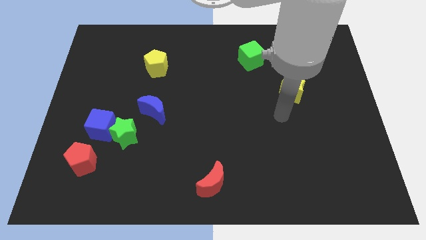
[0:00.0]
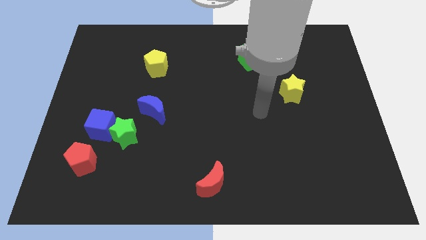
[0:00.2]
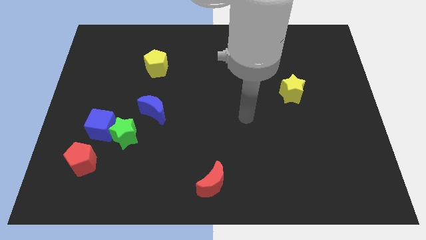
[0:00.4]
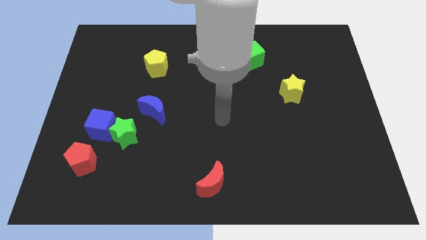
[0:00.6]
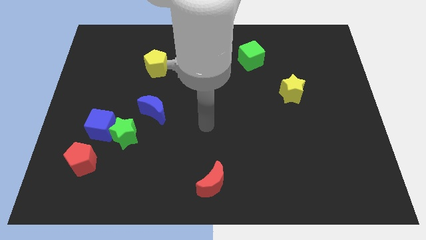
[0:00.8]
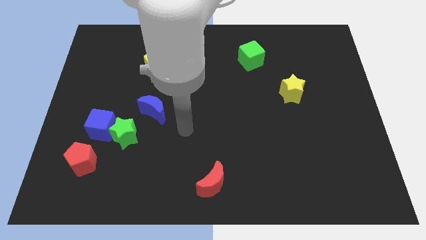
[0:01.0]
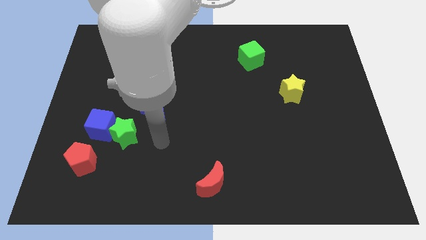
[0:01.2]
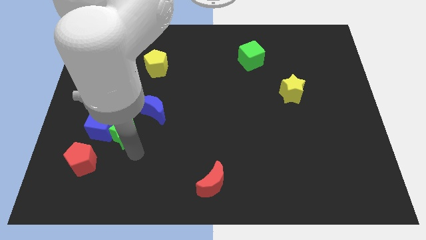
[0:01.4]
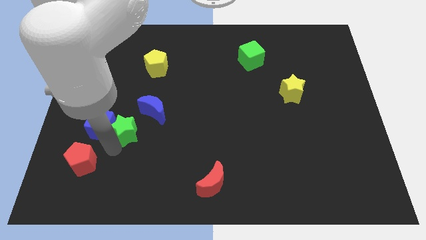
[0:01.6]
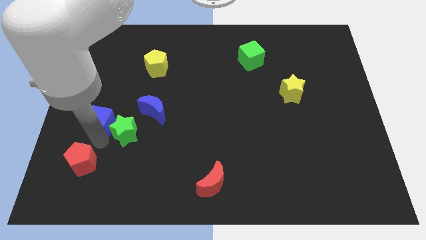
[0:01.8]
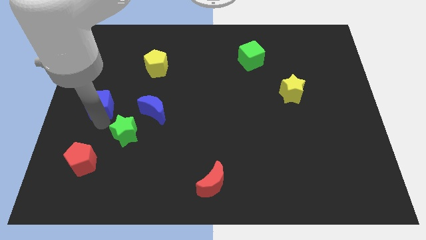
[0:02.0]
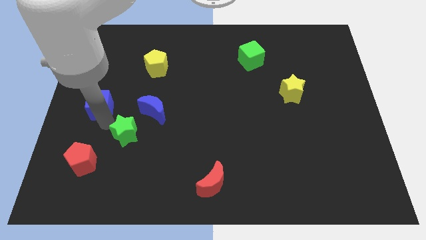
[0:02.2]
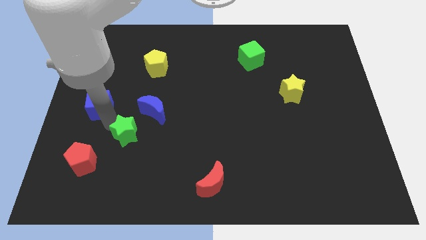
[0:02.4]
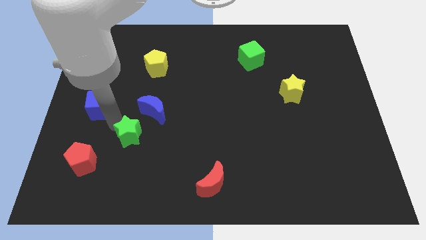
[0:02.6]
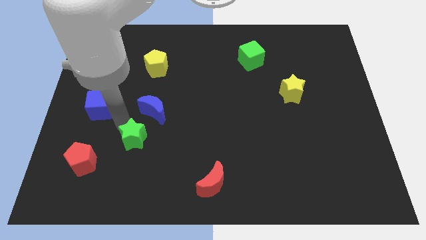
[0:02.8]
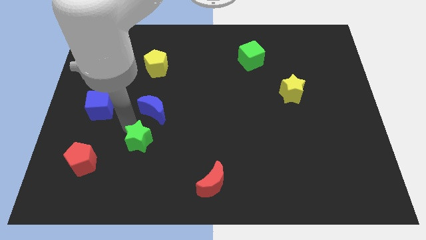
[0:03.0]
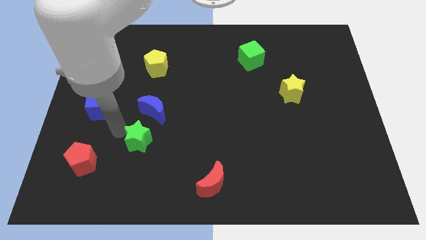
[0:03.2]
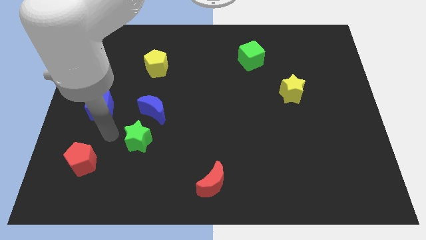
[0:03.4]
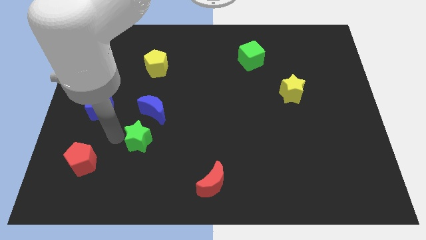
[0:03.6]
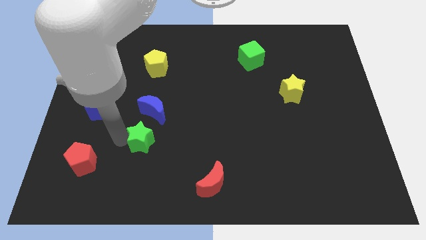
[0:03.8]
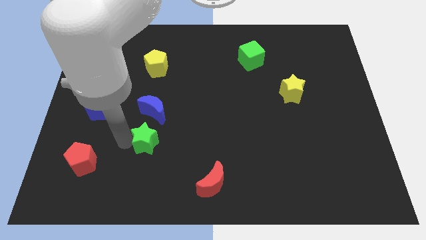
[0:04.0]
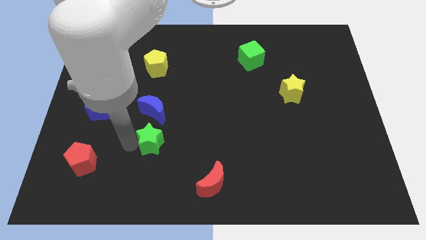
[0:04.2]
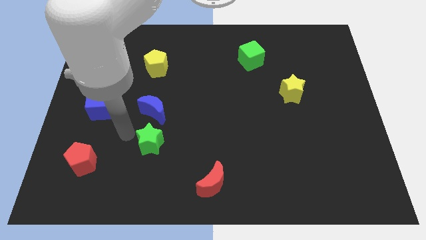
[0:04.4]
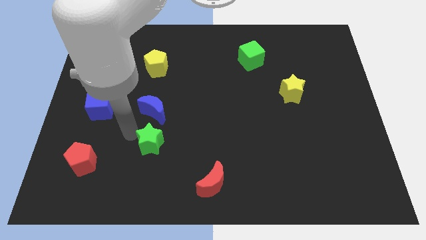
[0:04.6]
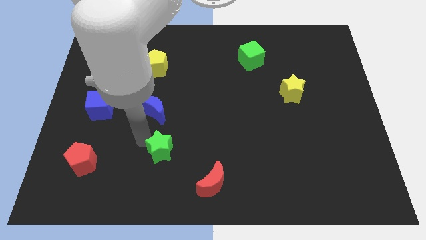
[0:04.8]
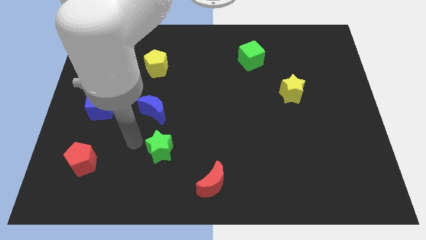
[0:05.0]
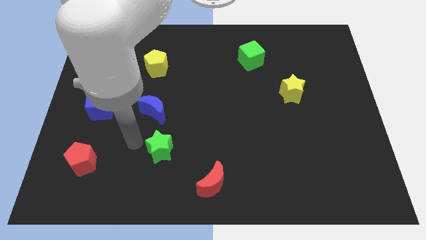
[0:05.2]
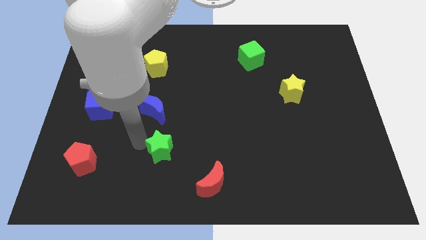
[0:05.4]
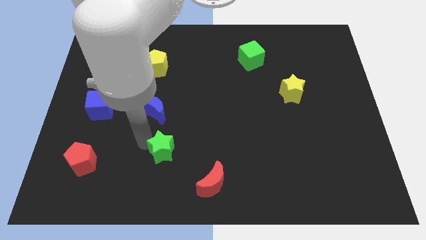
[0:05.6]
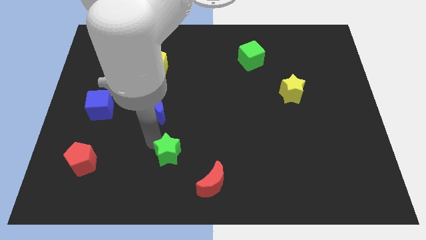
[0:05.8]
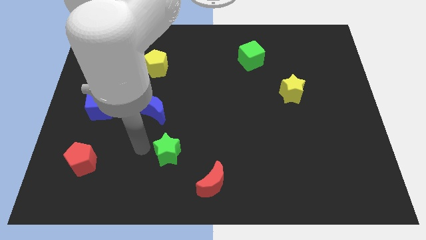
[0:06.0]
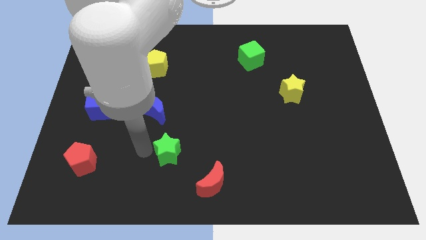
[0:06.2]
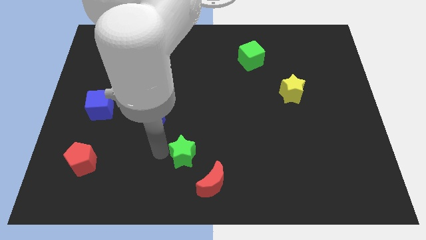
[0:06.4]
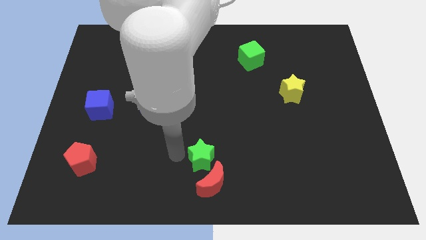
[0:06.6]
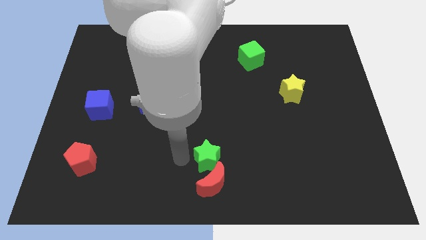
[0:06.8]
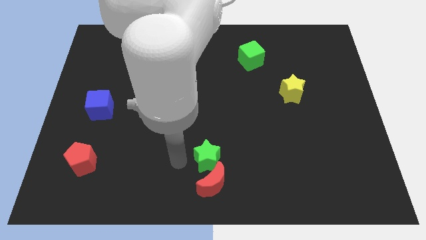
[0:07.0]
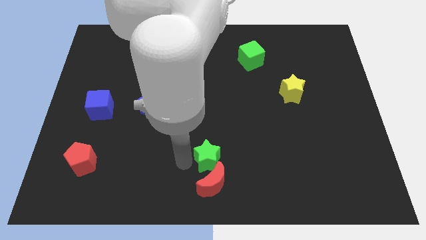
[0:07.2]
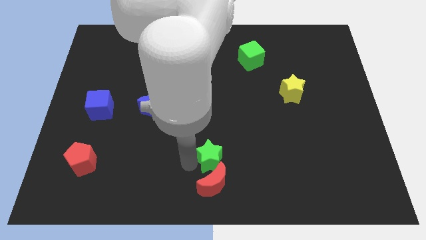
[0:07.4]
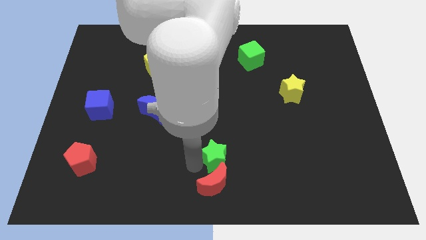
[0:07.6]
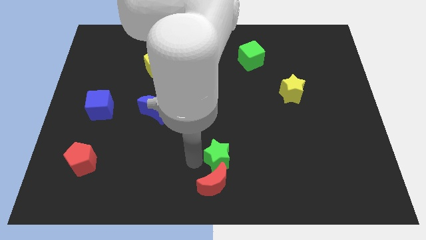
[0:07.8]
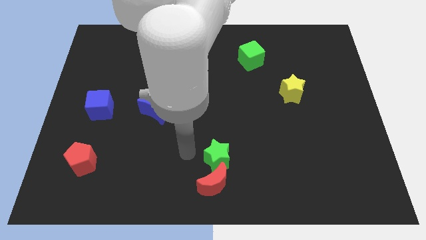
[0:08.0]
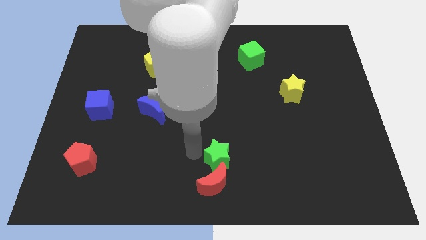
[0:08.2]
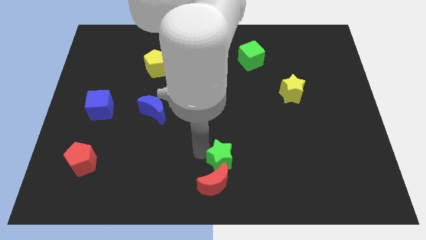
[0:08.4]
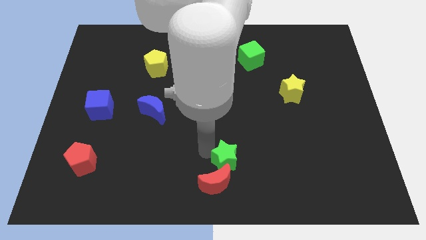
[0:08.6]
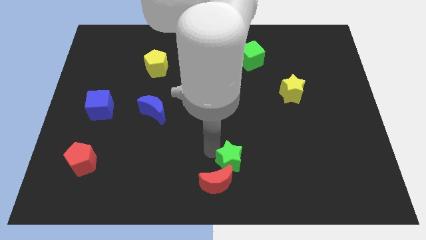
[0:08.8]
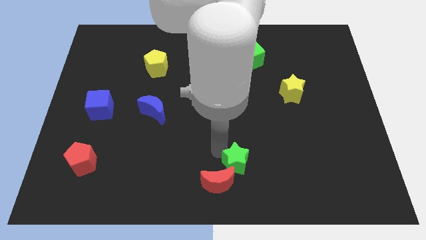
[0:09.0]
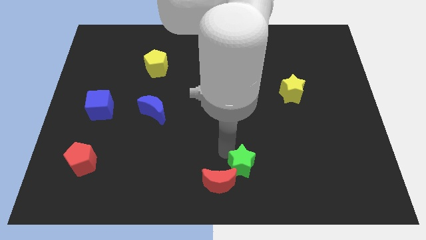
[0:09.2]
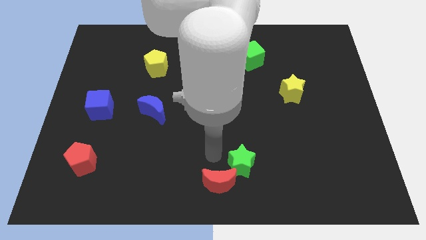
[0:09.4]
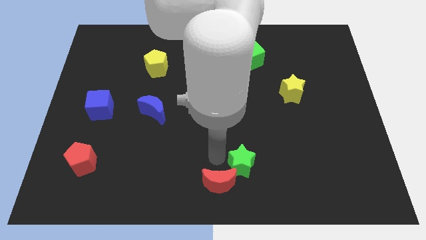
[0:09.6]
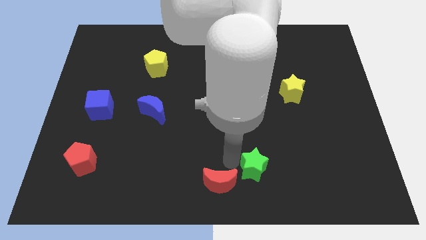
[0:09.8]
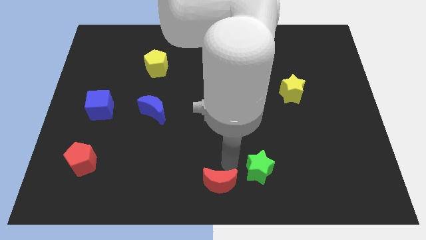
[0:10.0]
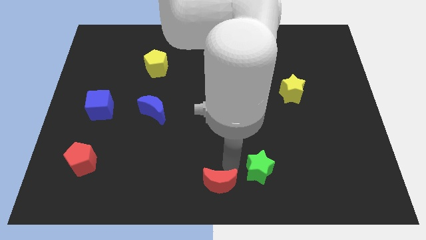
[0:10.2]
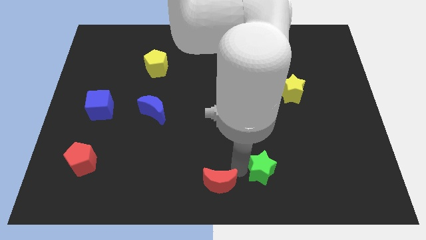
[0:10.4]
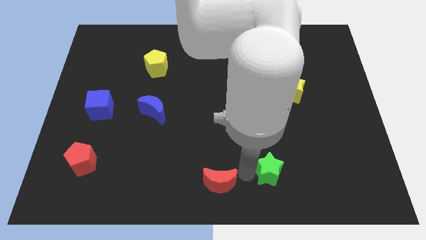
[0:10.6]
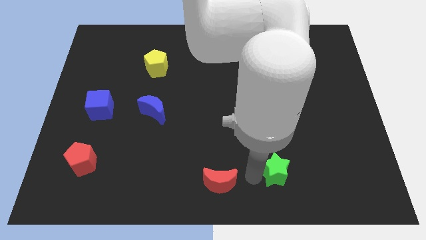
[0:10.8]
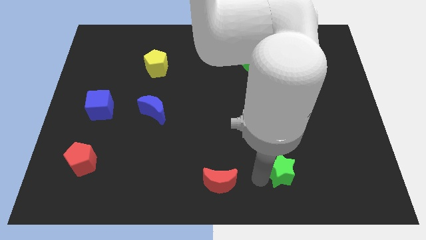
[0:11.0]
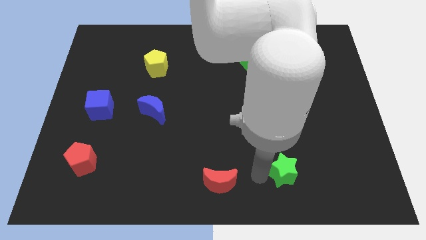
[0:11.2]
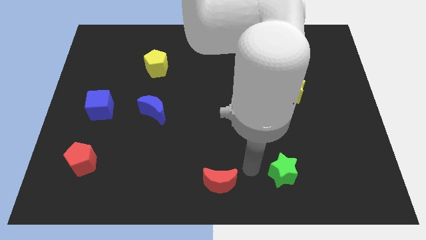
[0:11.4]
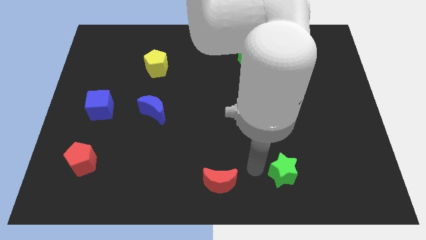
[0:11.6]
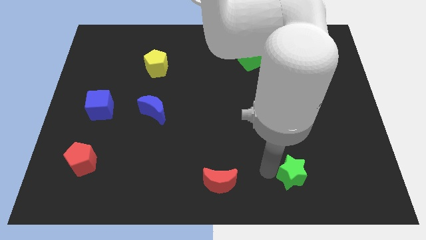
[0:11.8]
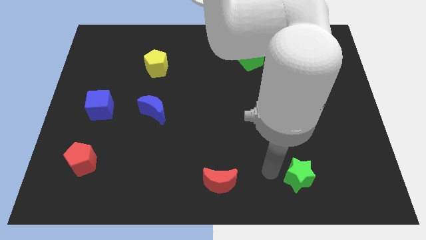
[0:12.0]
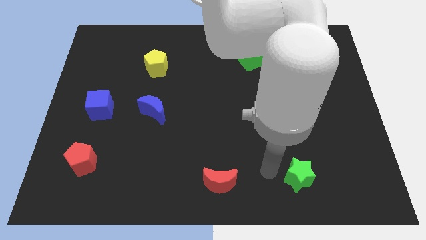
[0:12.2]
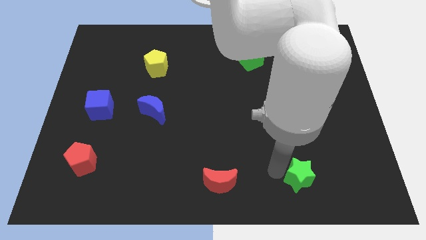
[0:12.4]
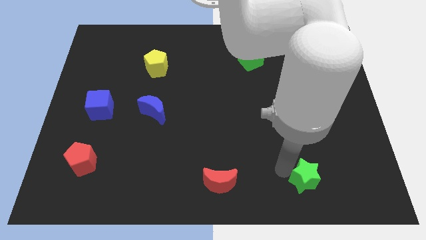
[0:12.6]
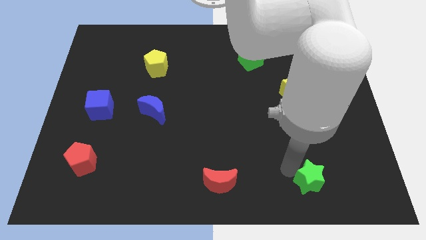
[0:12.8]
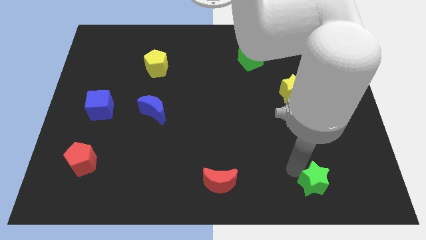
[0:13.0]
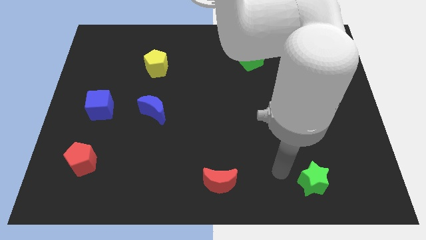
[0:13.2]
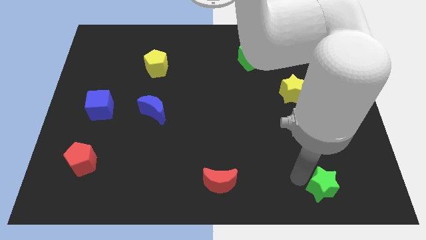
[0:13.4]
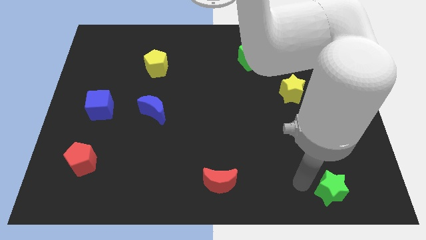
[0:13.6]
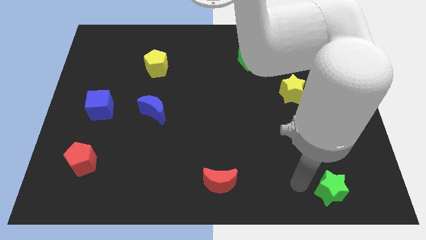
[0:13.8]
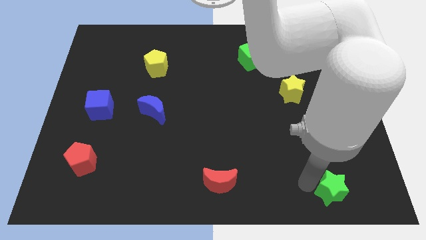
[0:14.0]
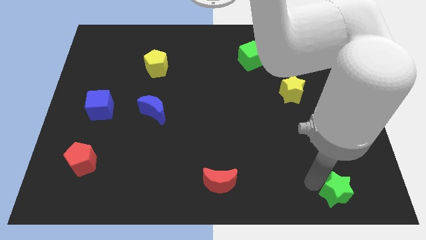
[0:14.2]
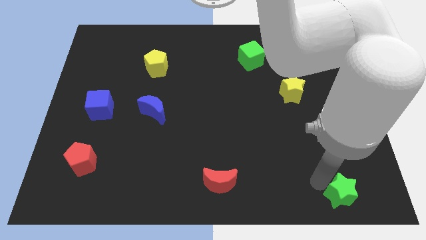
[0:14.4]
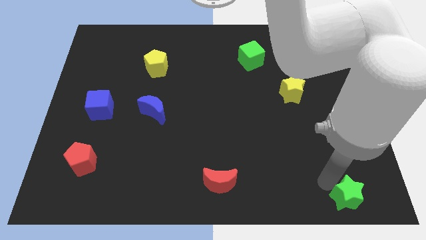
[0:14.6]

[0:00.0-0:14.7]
push the green star to the lower right corner

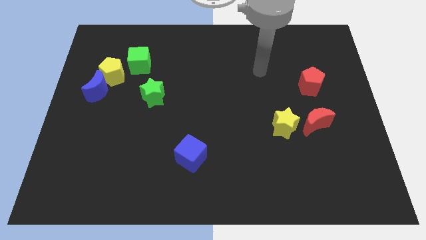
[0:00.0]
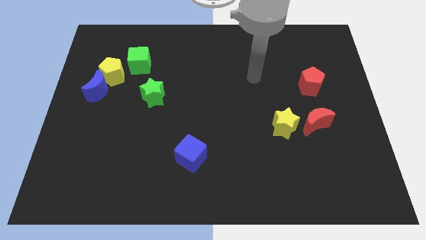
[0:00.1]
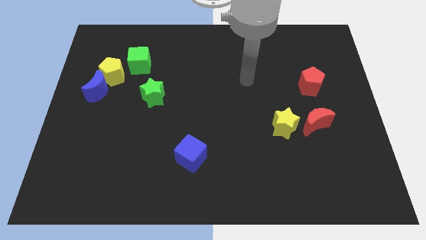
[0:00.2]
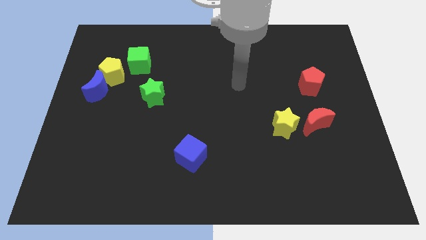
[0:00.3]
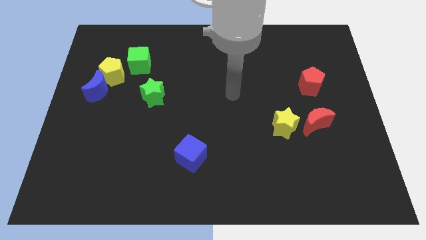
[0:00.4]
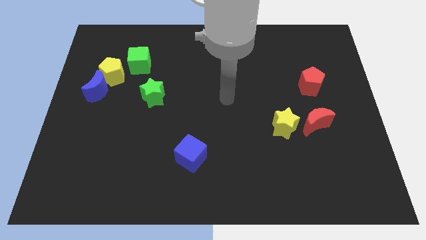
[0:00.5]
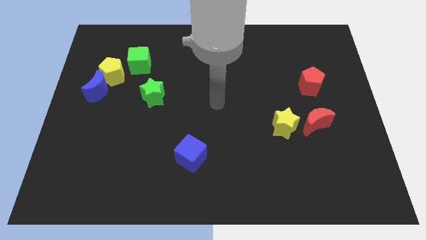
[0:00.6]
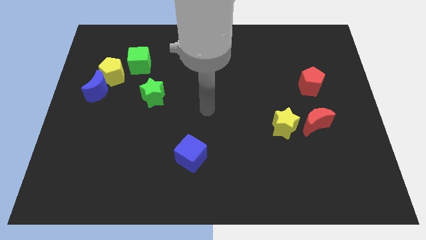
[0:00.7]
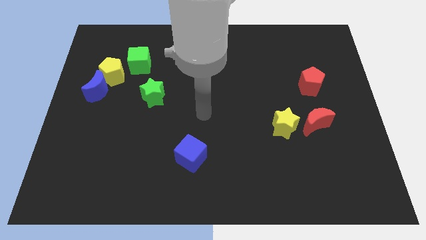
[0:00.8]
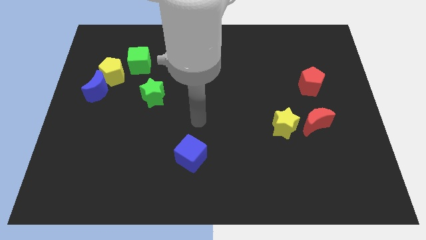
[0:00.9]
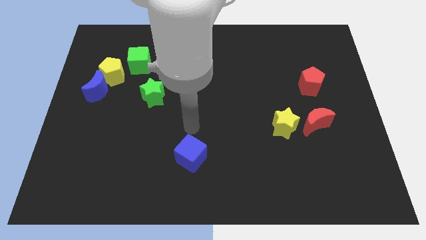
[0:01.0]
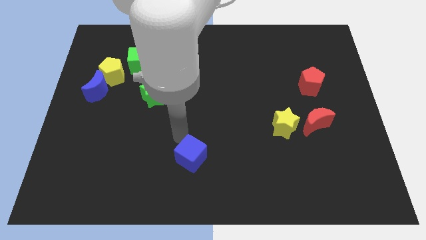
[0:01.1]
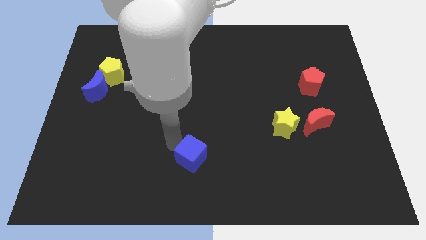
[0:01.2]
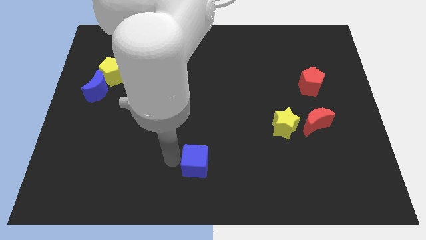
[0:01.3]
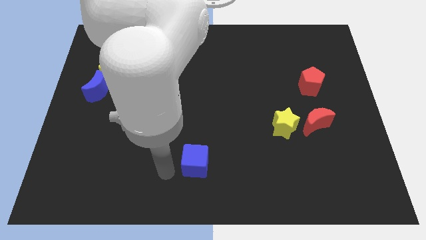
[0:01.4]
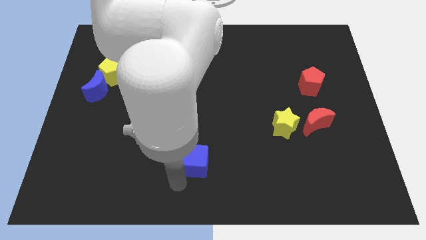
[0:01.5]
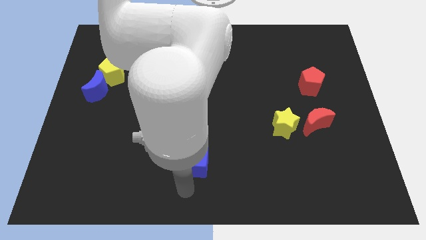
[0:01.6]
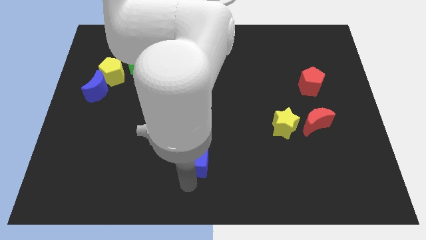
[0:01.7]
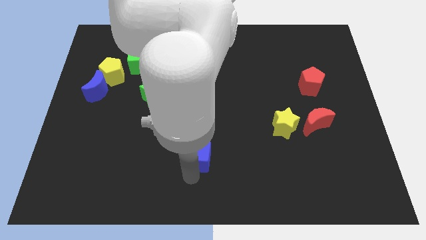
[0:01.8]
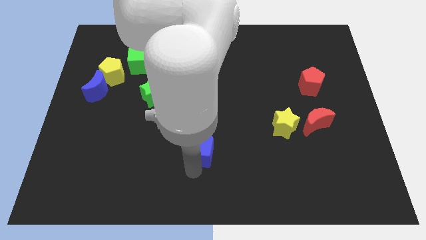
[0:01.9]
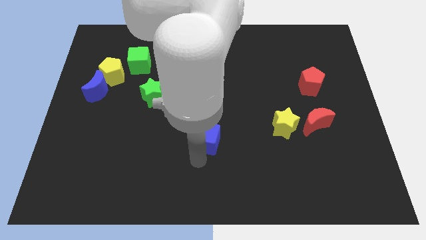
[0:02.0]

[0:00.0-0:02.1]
slide the blue cube to the middle of the board
